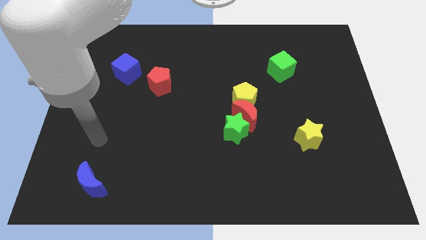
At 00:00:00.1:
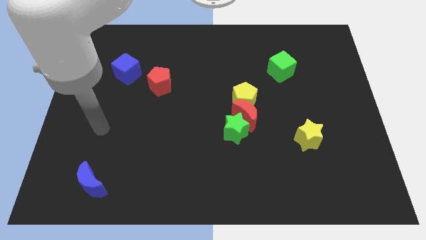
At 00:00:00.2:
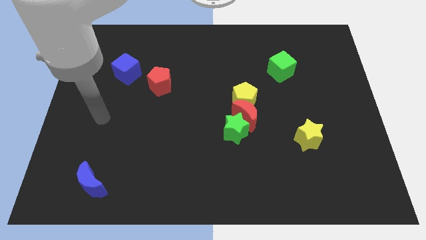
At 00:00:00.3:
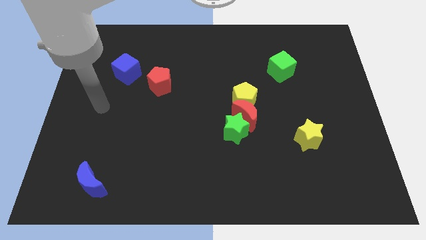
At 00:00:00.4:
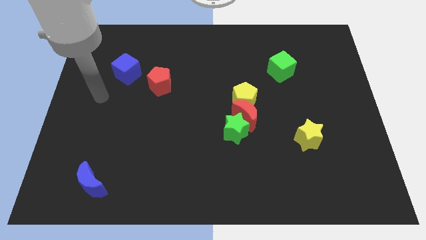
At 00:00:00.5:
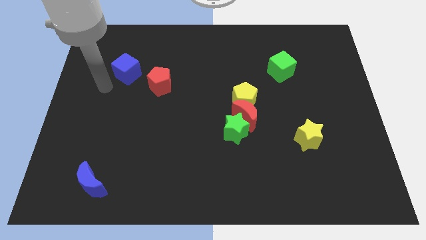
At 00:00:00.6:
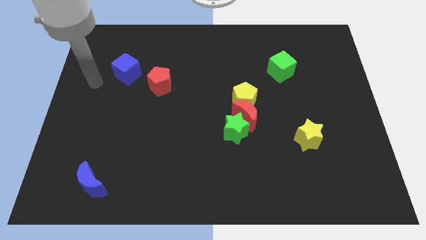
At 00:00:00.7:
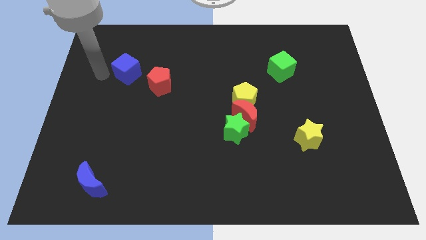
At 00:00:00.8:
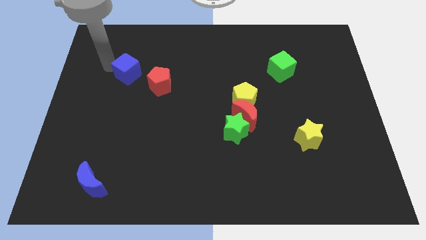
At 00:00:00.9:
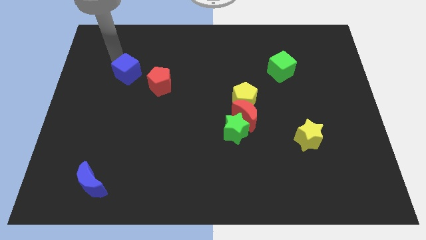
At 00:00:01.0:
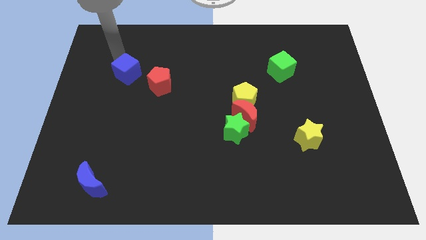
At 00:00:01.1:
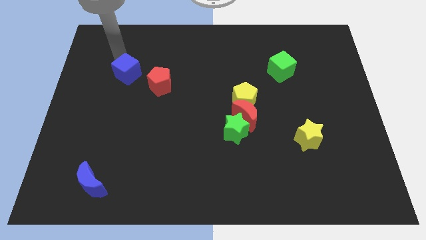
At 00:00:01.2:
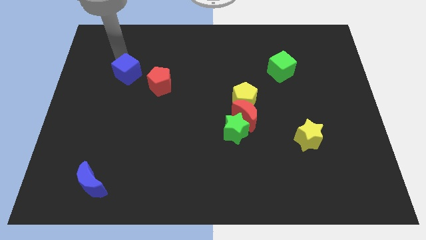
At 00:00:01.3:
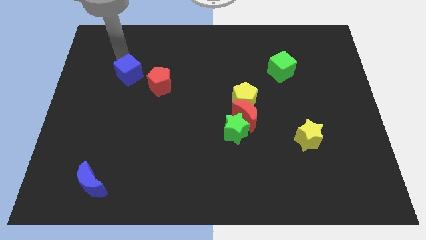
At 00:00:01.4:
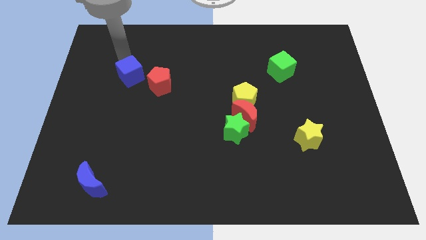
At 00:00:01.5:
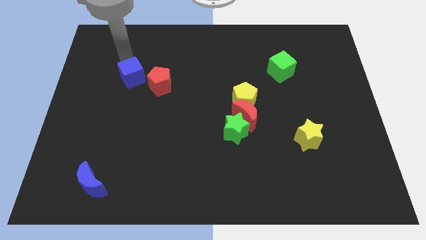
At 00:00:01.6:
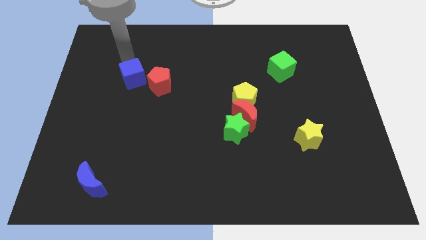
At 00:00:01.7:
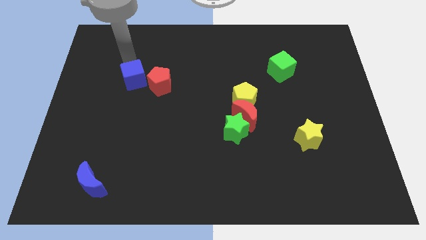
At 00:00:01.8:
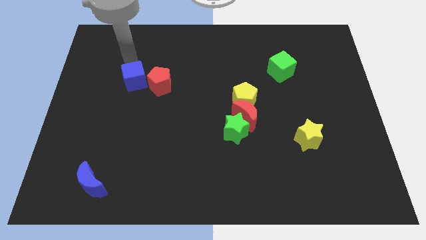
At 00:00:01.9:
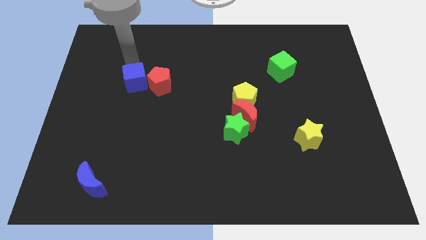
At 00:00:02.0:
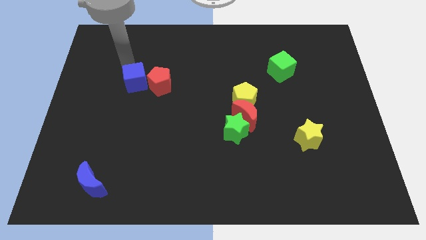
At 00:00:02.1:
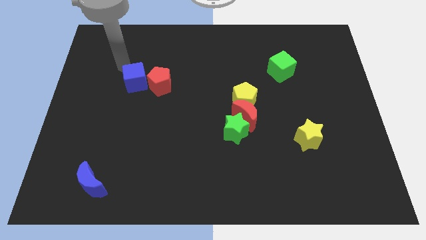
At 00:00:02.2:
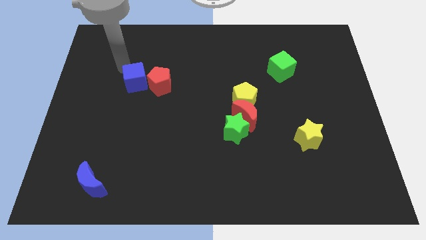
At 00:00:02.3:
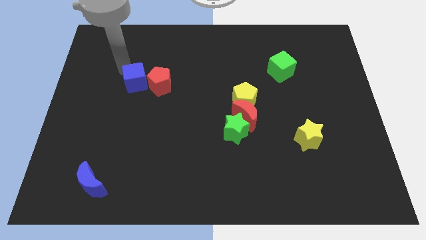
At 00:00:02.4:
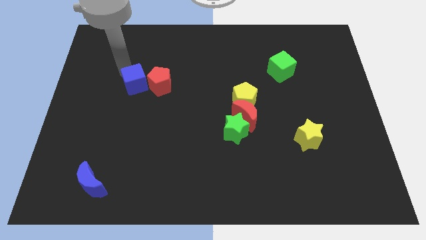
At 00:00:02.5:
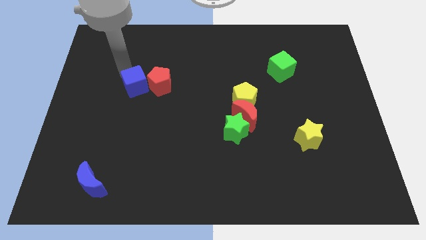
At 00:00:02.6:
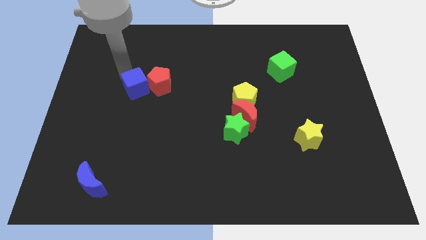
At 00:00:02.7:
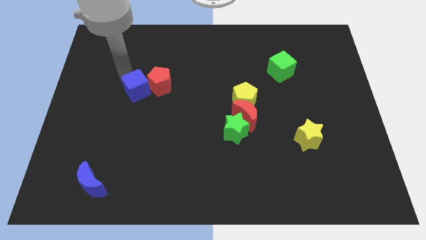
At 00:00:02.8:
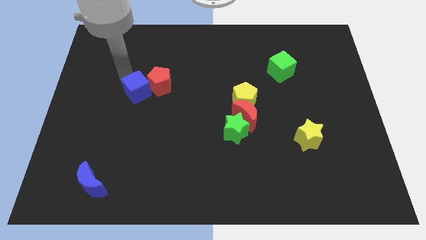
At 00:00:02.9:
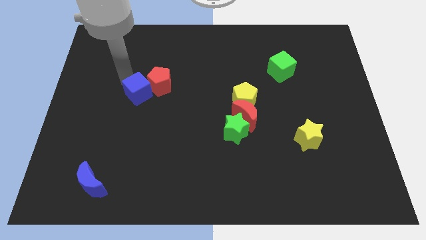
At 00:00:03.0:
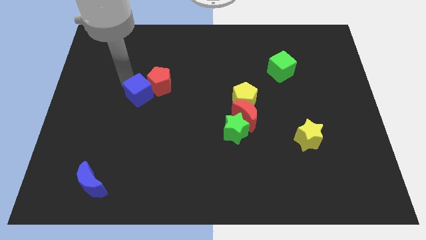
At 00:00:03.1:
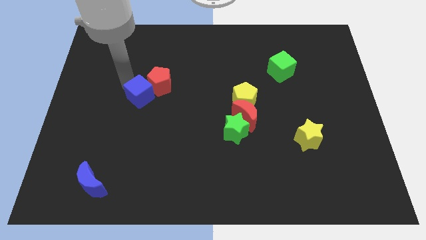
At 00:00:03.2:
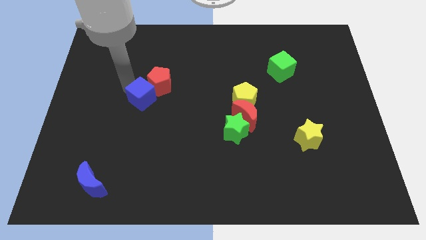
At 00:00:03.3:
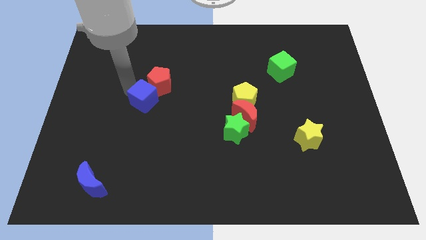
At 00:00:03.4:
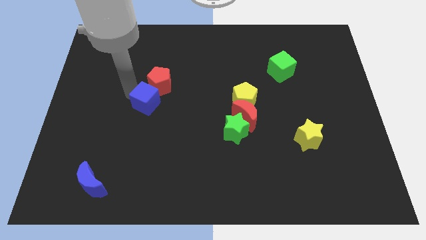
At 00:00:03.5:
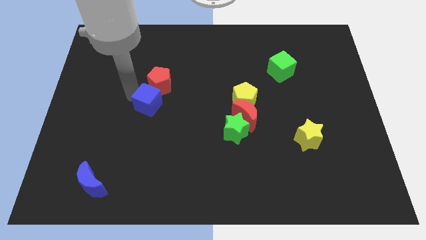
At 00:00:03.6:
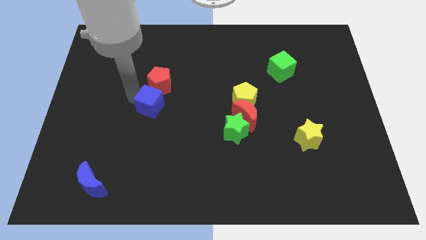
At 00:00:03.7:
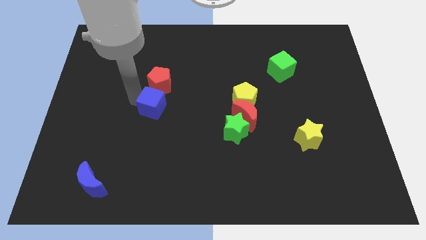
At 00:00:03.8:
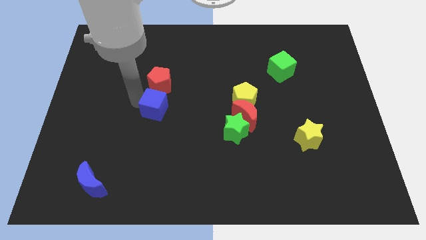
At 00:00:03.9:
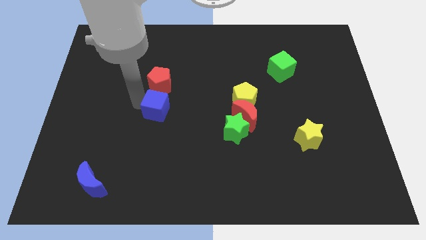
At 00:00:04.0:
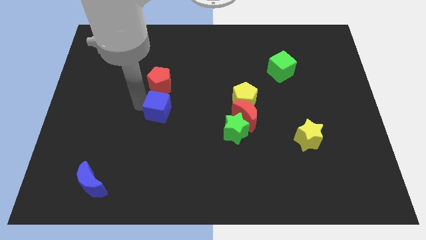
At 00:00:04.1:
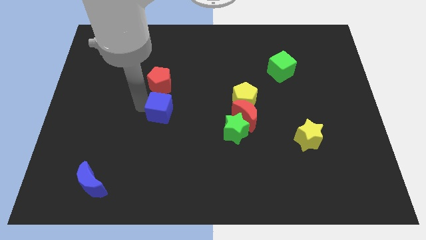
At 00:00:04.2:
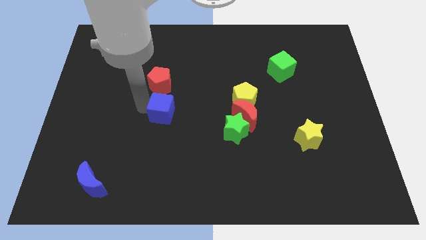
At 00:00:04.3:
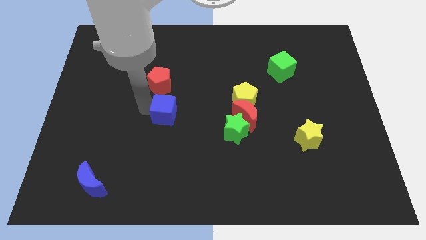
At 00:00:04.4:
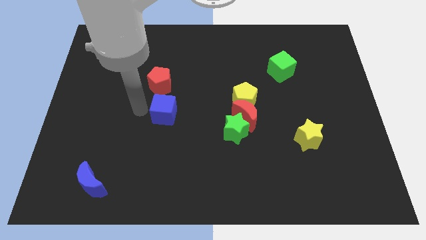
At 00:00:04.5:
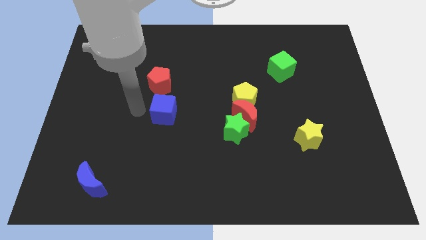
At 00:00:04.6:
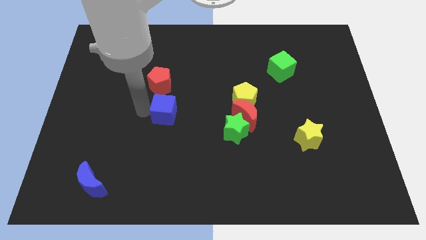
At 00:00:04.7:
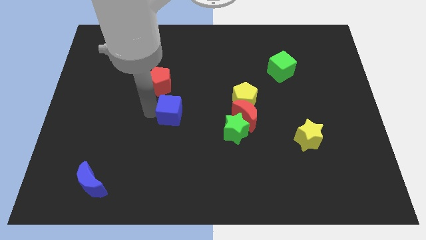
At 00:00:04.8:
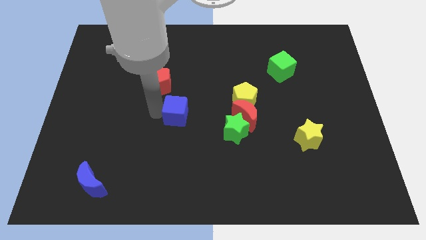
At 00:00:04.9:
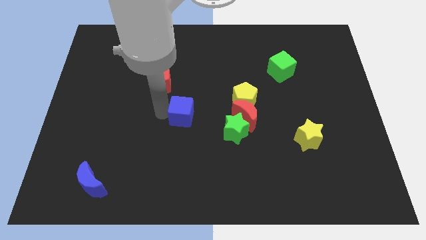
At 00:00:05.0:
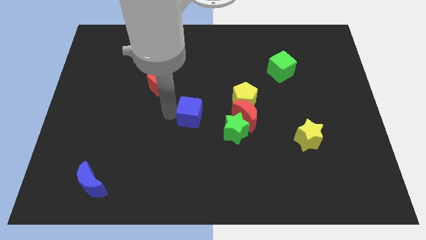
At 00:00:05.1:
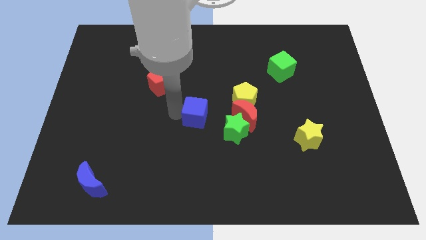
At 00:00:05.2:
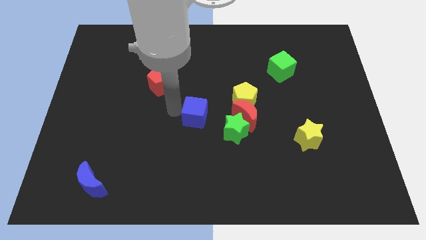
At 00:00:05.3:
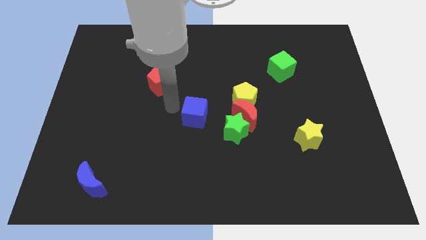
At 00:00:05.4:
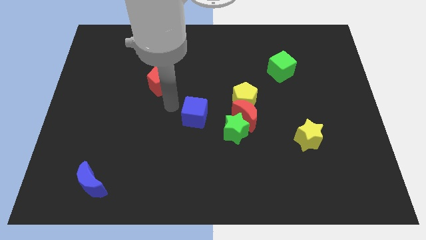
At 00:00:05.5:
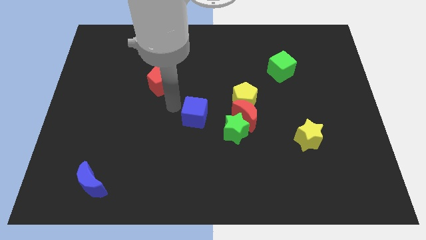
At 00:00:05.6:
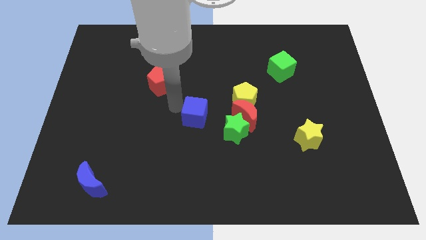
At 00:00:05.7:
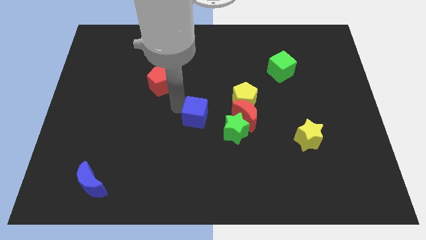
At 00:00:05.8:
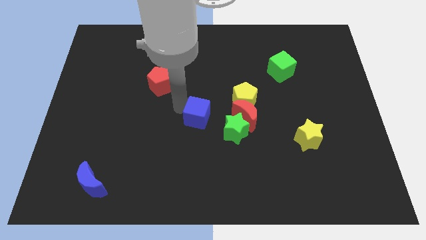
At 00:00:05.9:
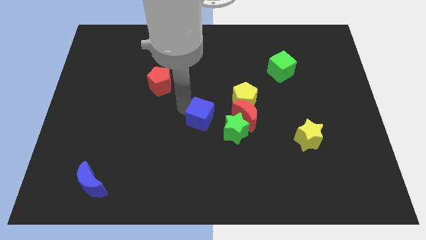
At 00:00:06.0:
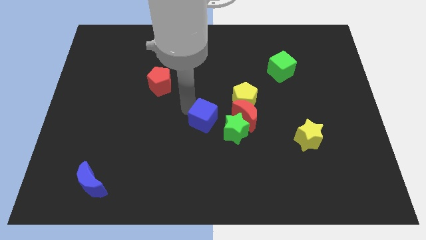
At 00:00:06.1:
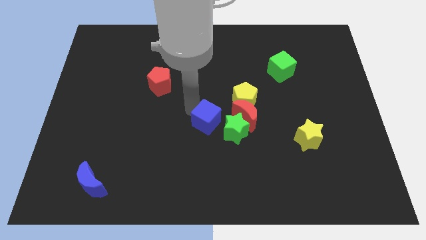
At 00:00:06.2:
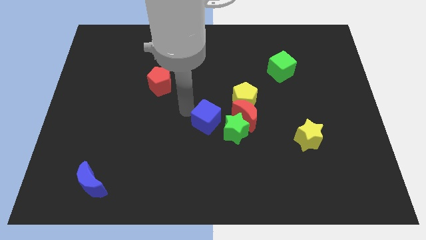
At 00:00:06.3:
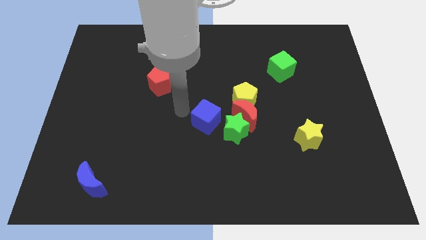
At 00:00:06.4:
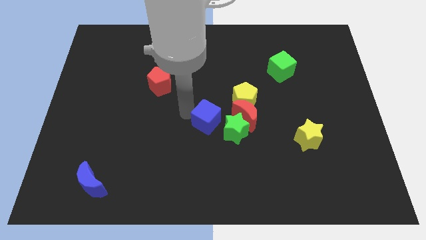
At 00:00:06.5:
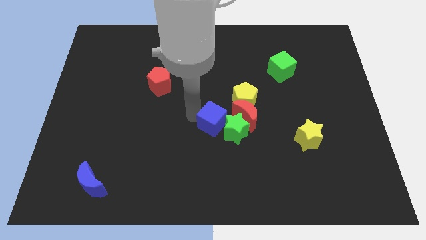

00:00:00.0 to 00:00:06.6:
move the blue cube towards the green star
